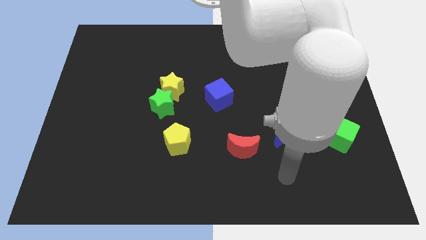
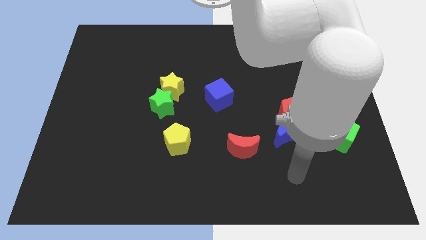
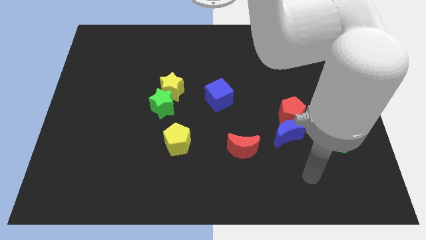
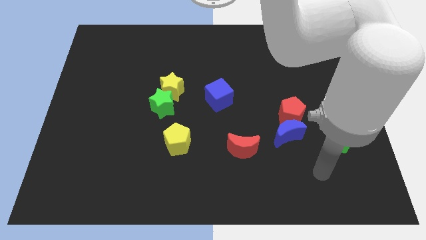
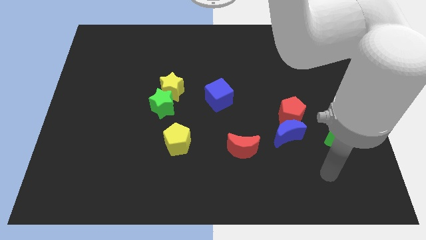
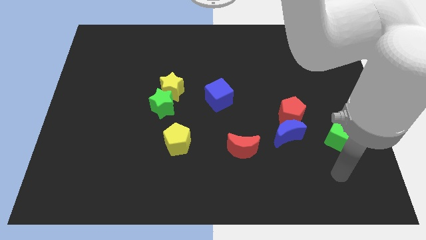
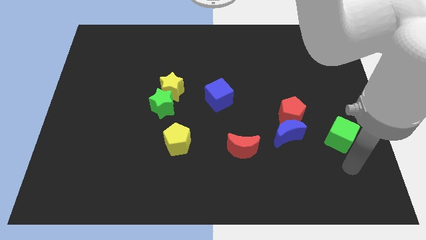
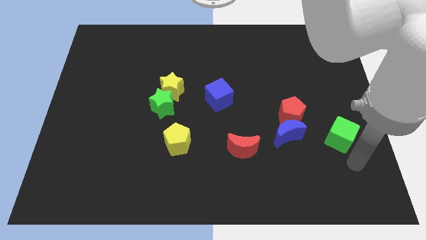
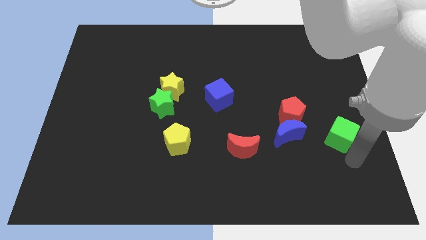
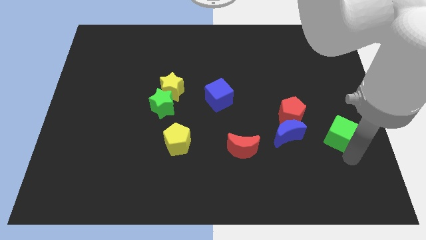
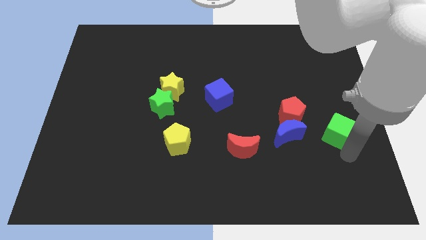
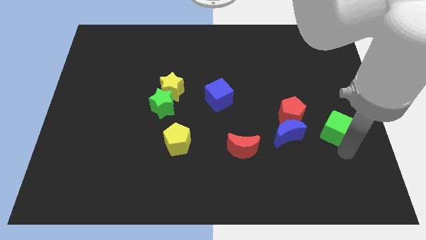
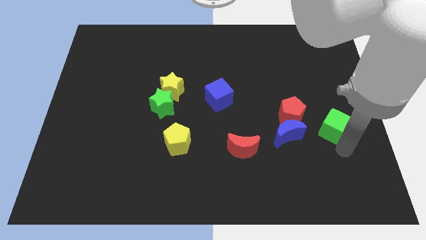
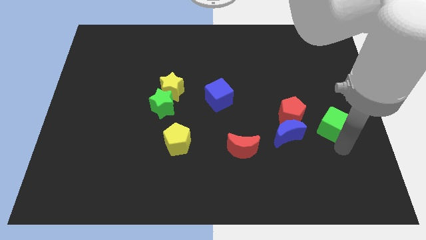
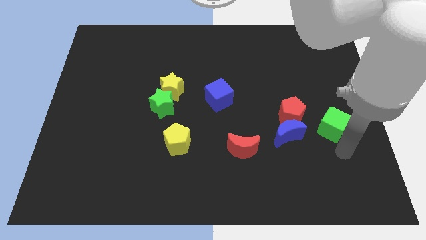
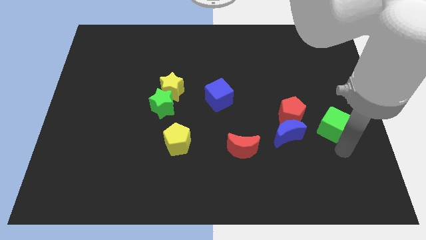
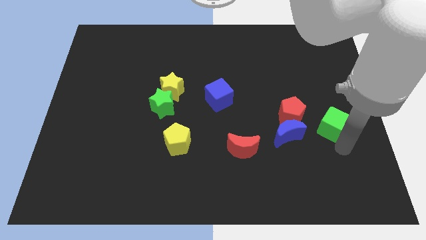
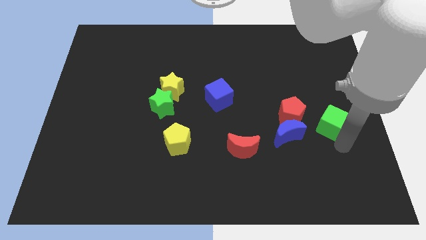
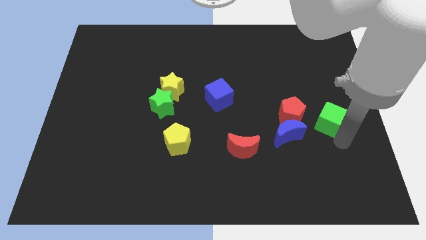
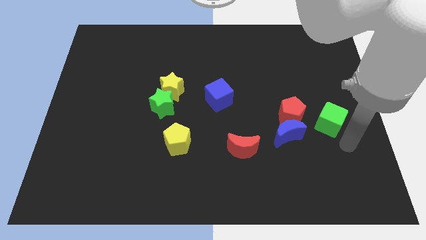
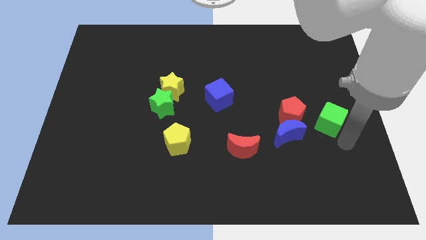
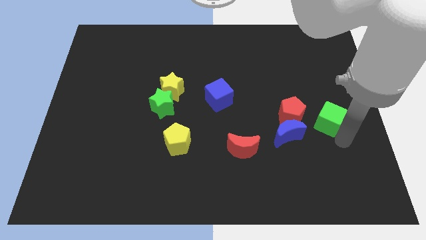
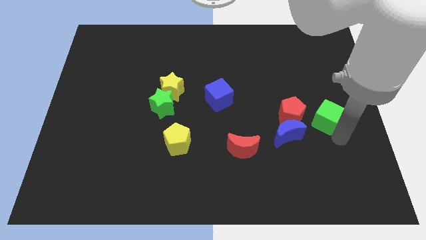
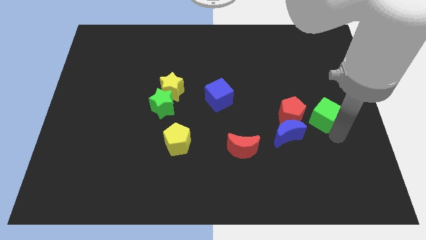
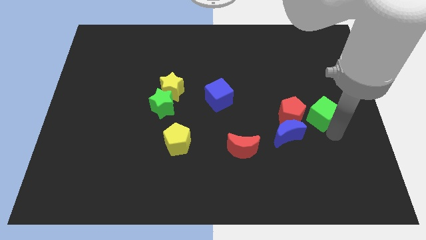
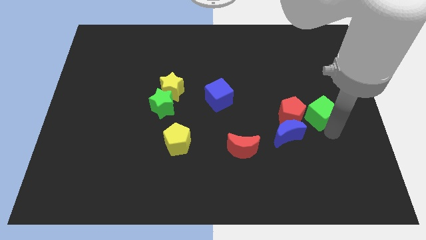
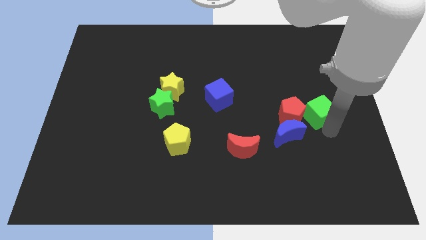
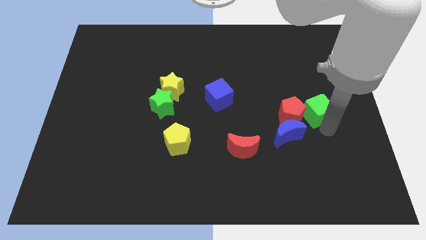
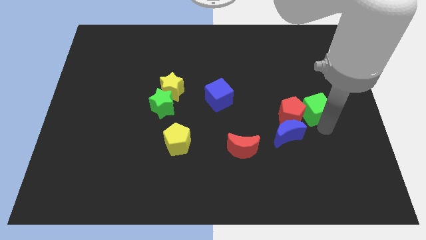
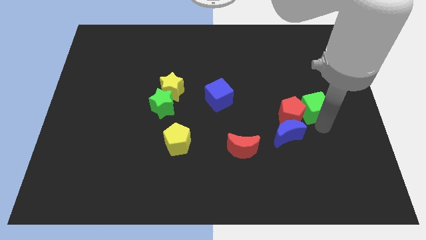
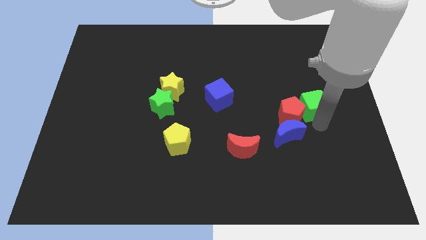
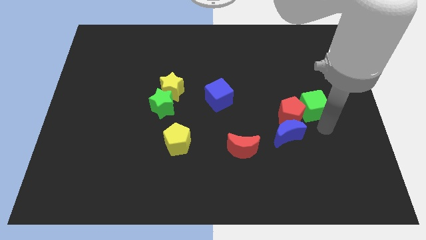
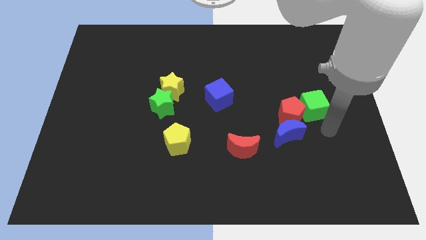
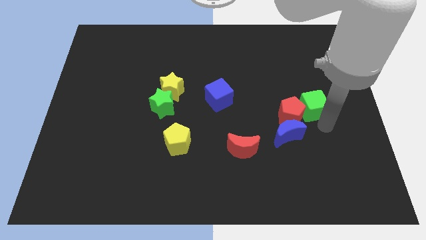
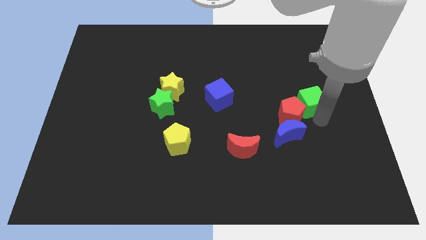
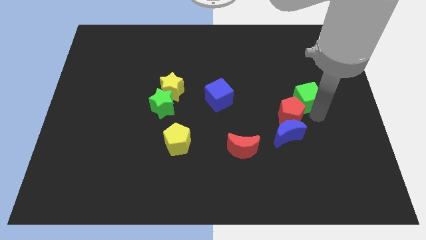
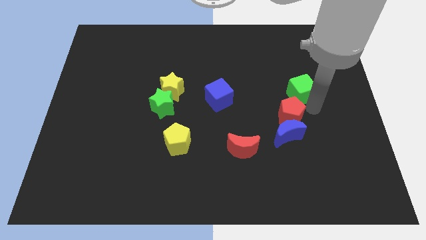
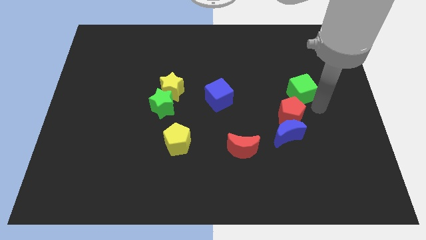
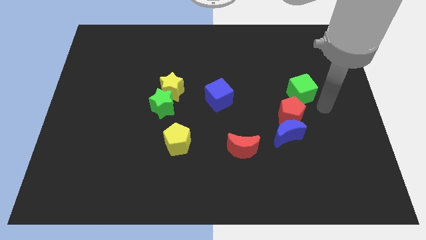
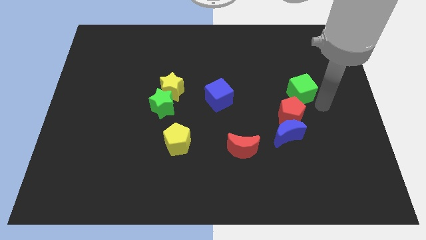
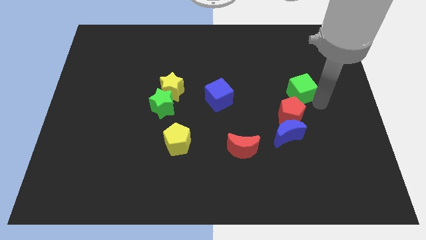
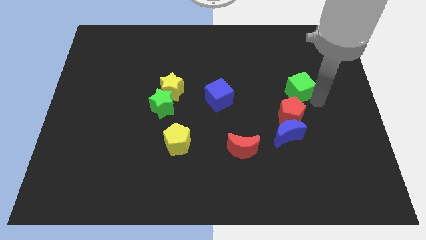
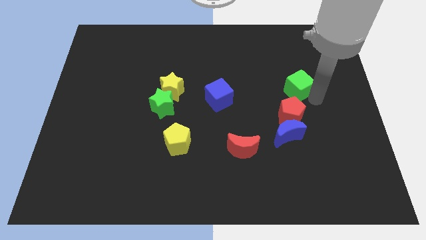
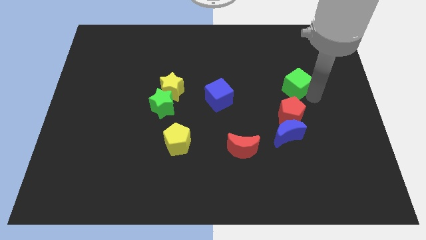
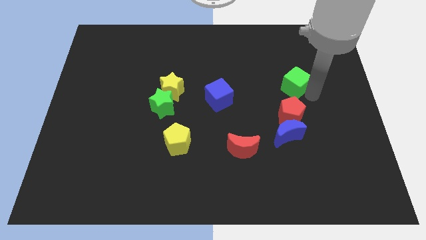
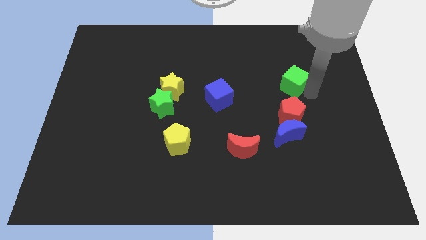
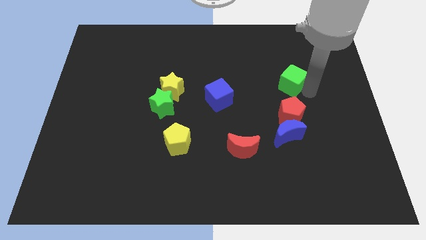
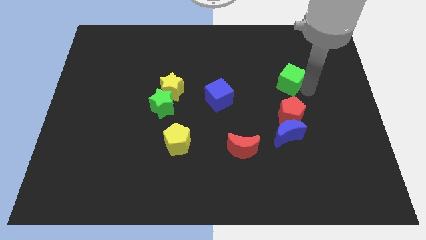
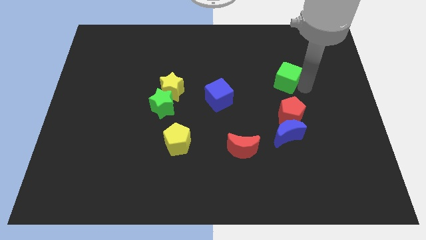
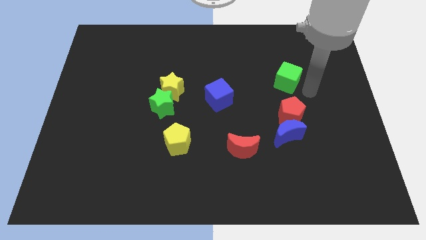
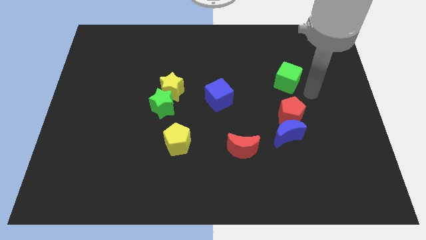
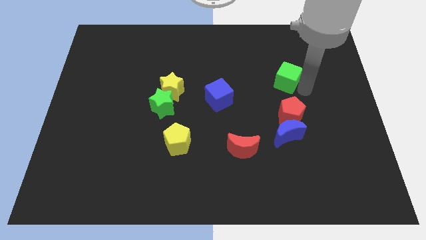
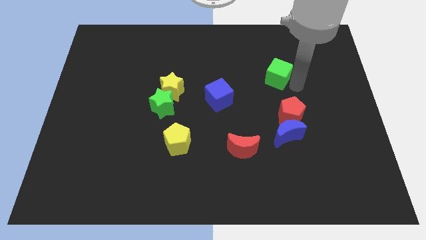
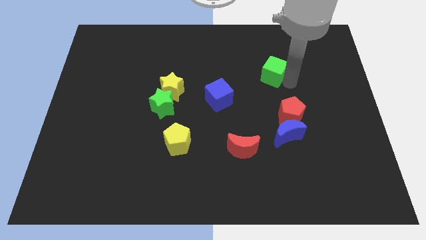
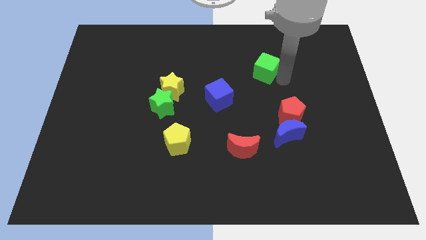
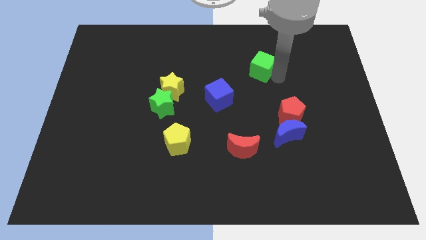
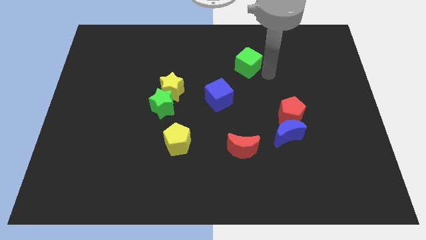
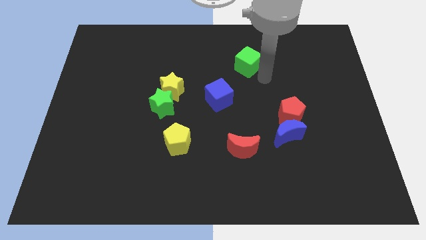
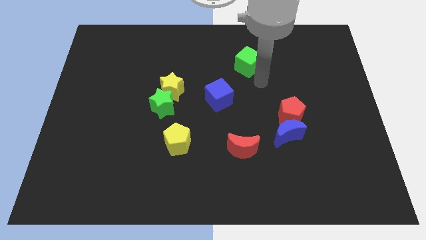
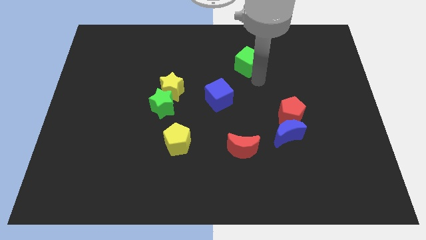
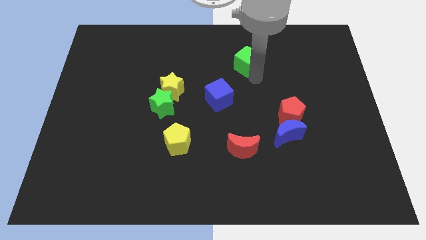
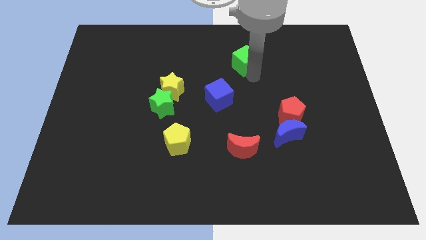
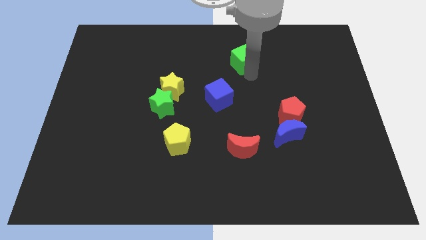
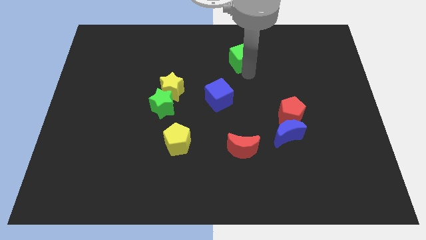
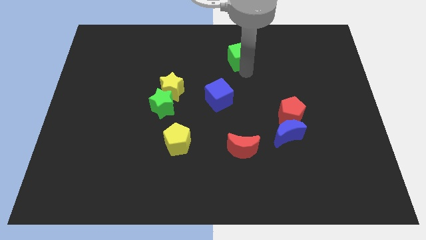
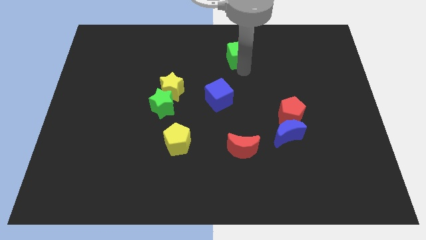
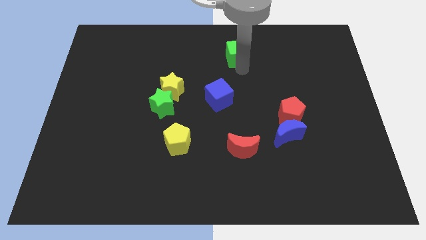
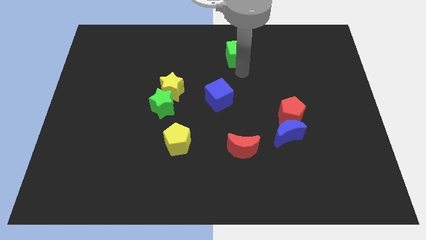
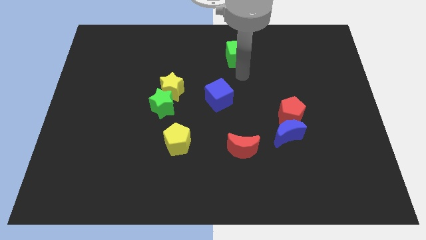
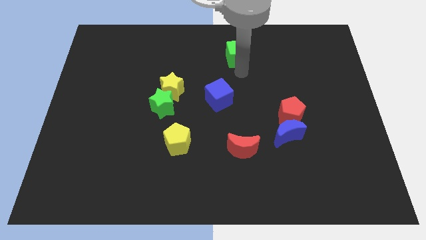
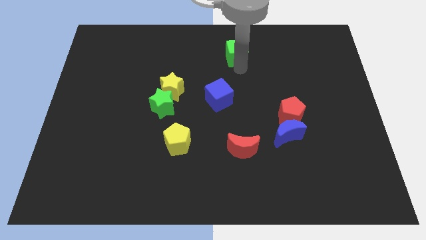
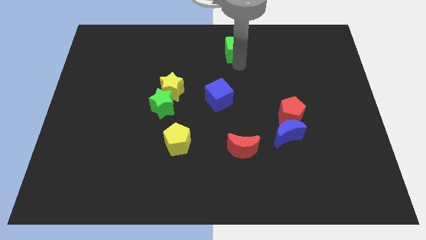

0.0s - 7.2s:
push the green cube to the top side
